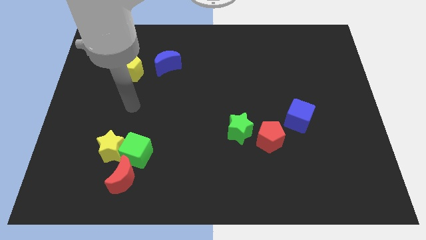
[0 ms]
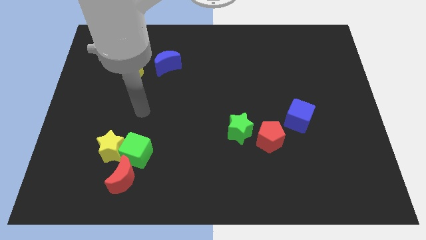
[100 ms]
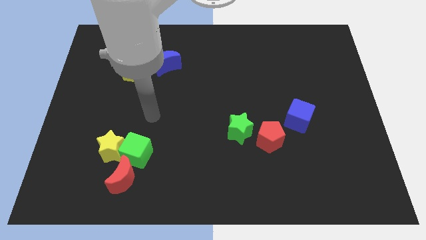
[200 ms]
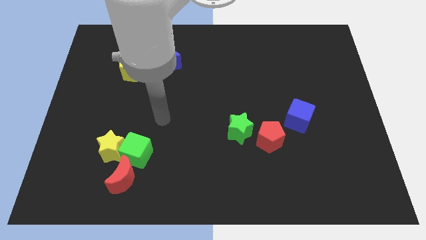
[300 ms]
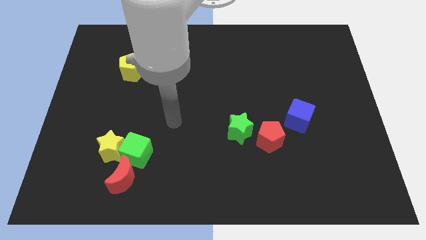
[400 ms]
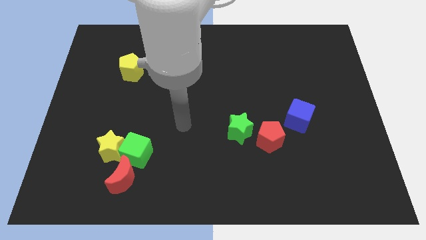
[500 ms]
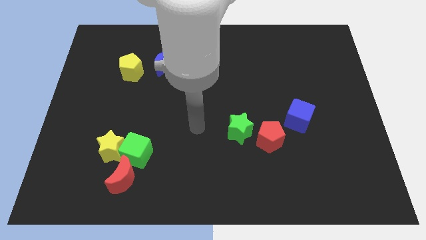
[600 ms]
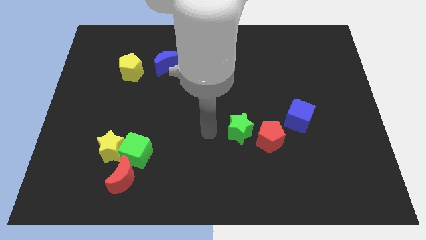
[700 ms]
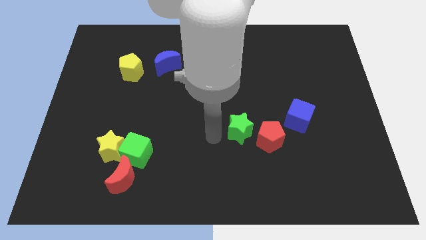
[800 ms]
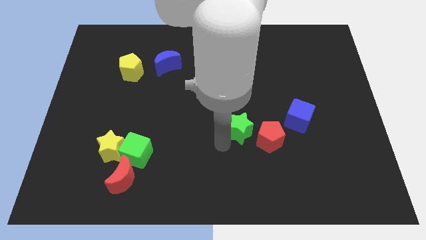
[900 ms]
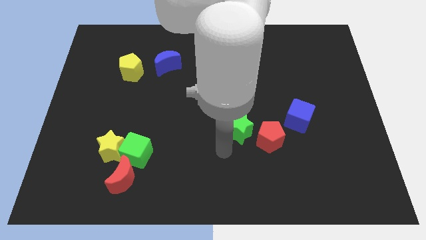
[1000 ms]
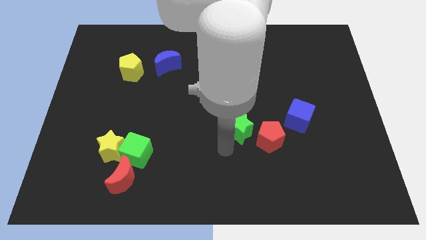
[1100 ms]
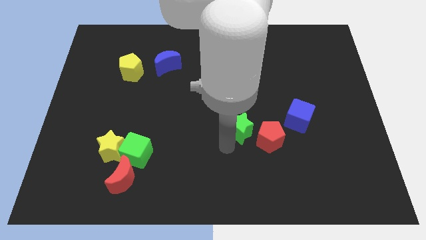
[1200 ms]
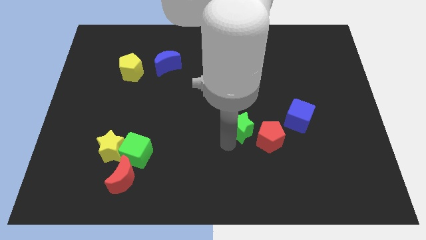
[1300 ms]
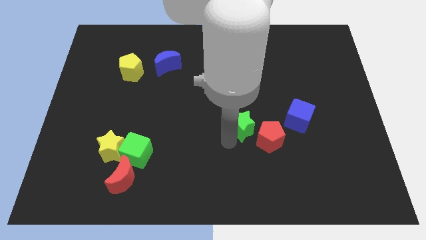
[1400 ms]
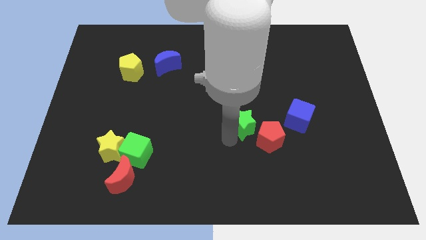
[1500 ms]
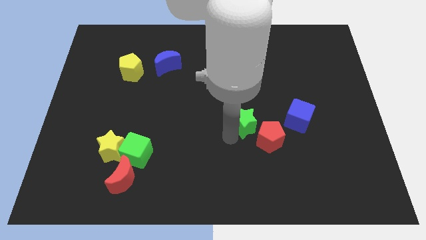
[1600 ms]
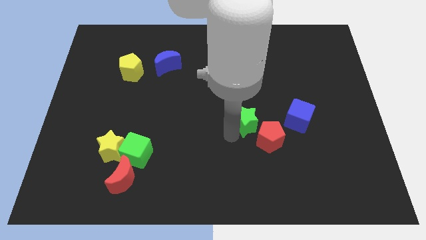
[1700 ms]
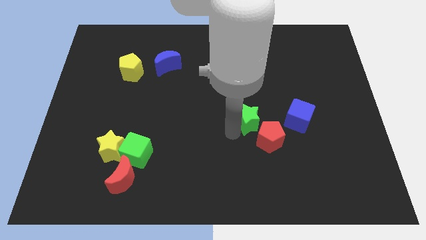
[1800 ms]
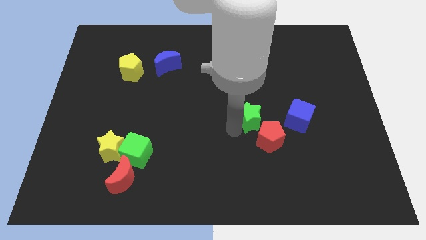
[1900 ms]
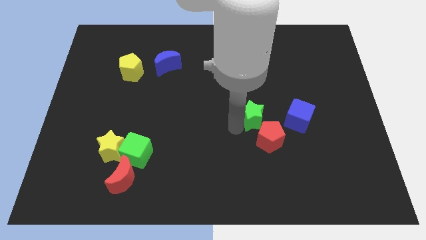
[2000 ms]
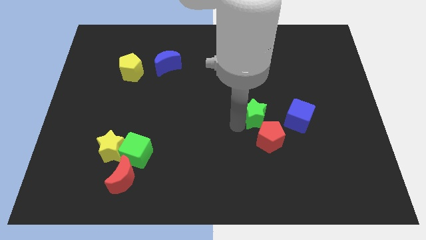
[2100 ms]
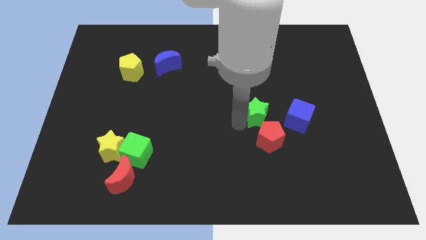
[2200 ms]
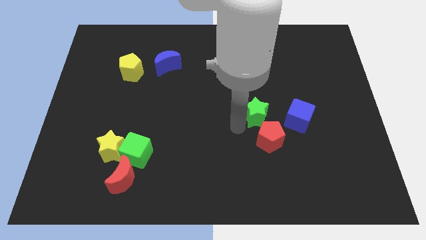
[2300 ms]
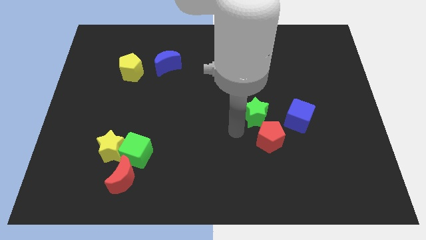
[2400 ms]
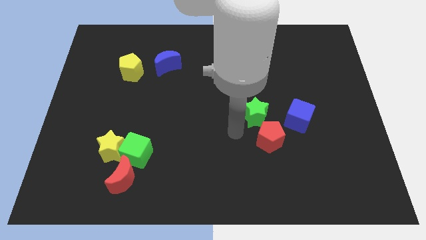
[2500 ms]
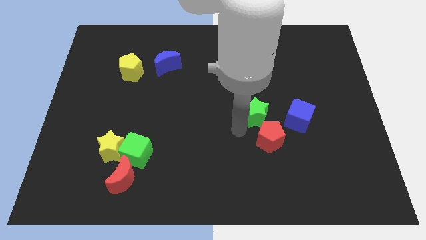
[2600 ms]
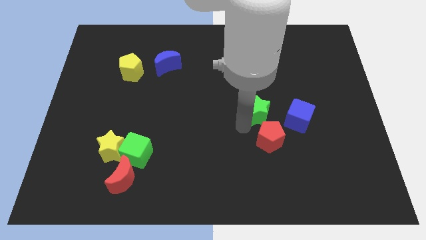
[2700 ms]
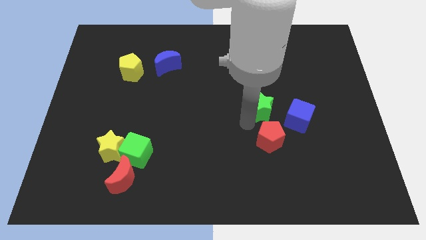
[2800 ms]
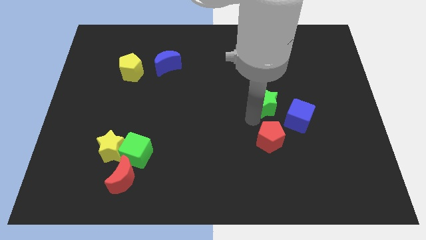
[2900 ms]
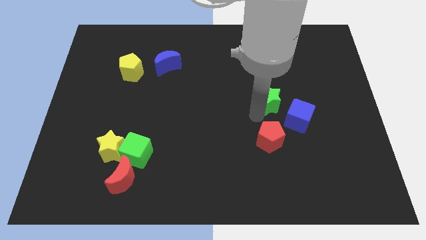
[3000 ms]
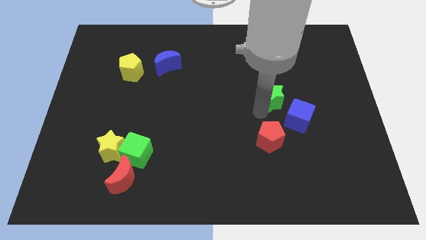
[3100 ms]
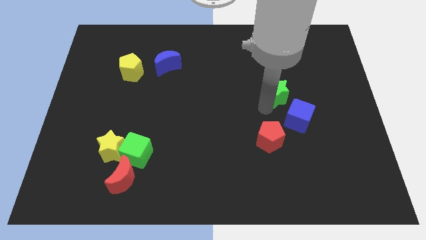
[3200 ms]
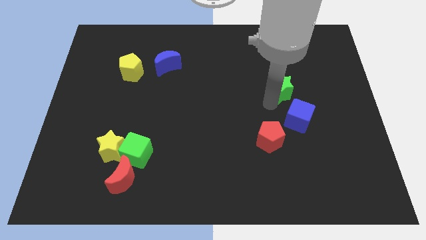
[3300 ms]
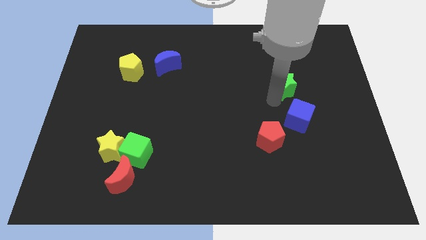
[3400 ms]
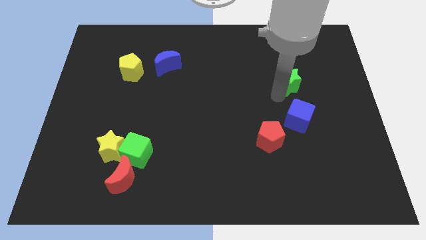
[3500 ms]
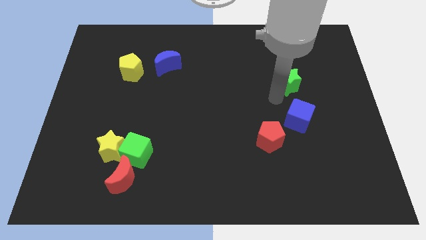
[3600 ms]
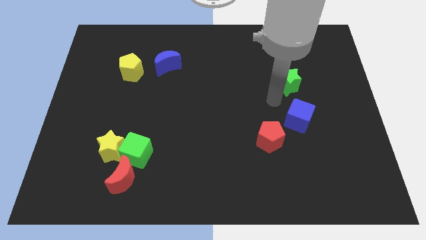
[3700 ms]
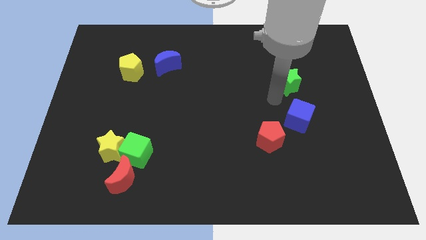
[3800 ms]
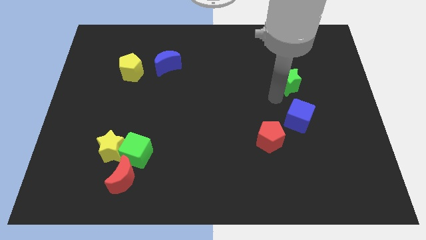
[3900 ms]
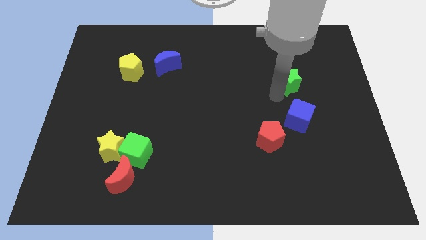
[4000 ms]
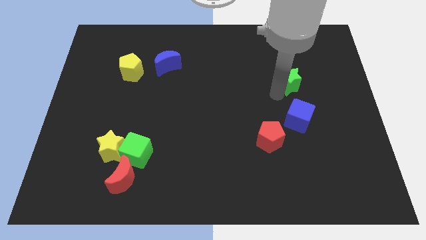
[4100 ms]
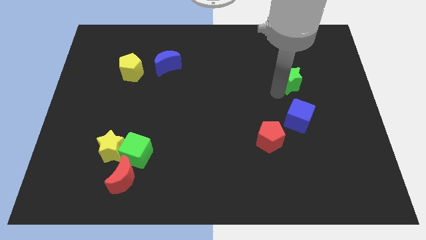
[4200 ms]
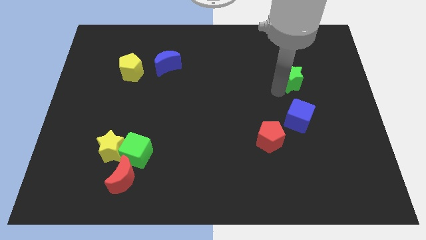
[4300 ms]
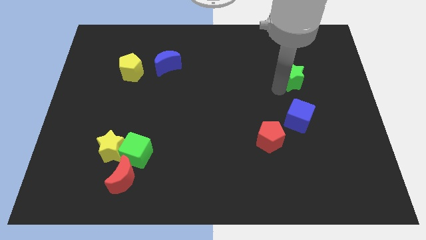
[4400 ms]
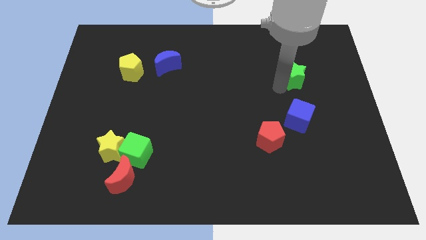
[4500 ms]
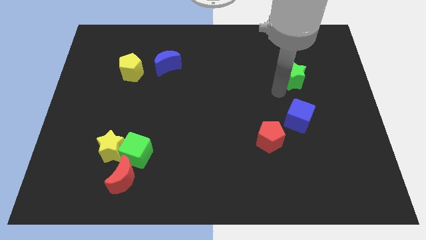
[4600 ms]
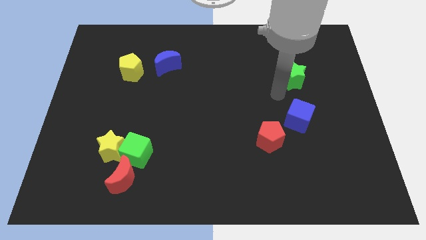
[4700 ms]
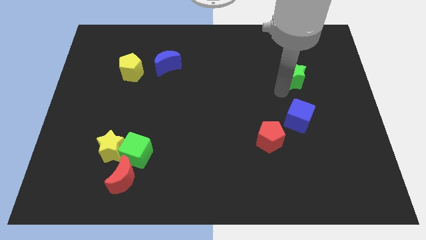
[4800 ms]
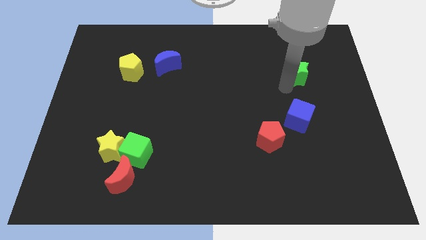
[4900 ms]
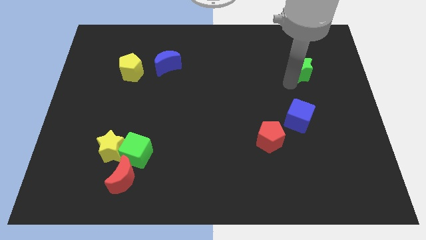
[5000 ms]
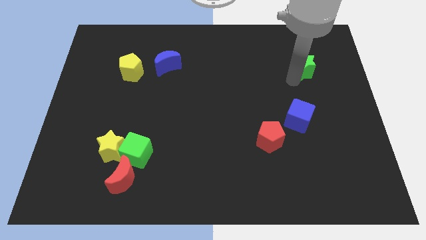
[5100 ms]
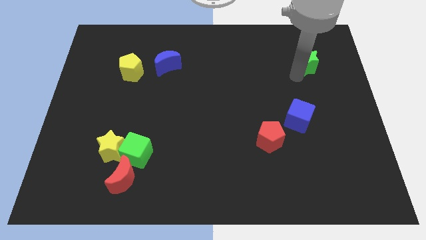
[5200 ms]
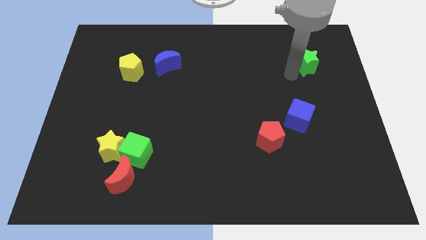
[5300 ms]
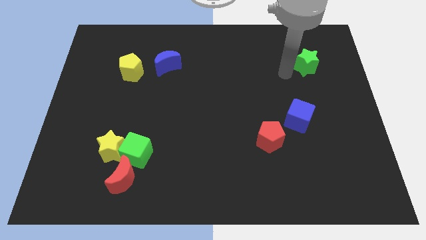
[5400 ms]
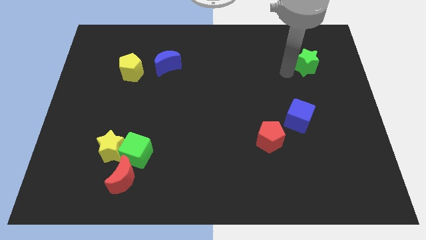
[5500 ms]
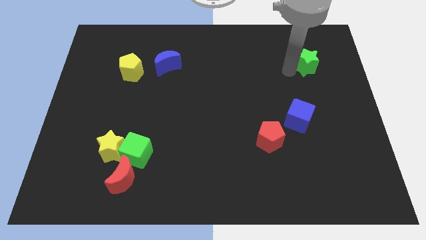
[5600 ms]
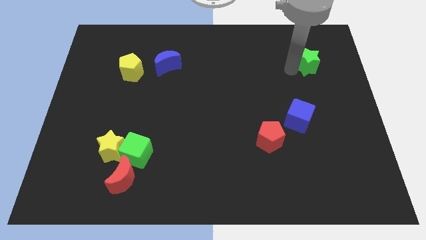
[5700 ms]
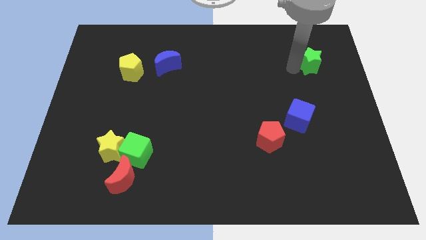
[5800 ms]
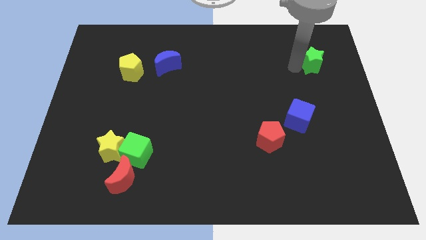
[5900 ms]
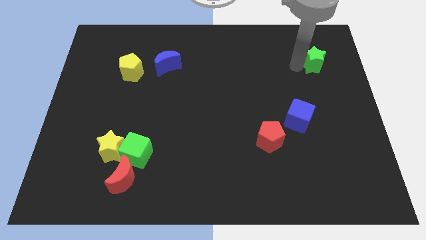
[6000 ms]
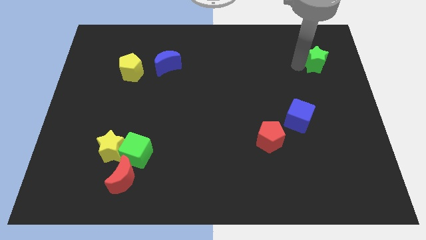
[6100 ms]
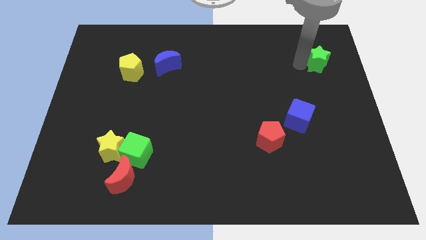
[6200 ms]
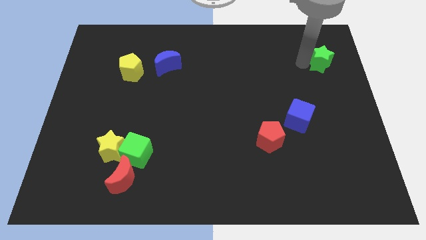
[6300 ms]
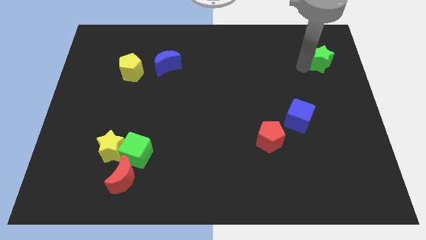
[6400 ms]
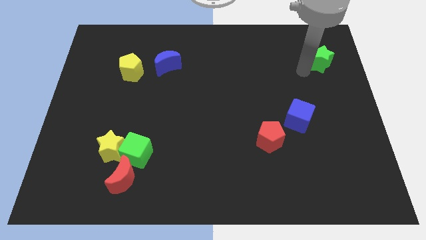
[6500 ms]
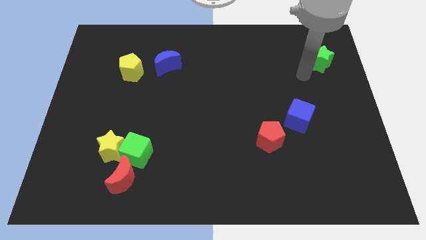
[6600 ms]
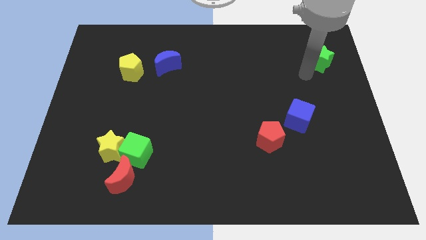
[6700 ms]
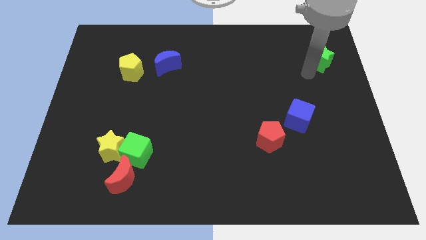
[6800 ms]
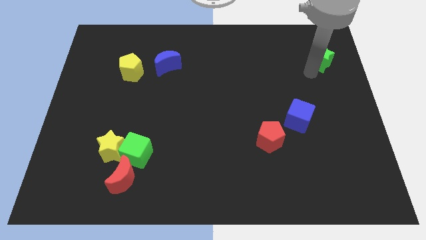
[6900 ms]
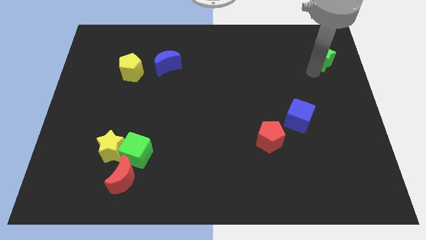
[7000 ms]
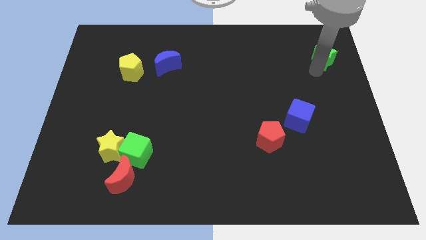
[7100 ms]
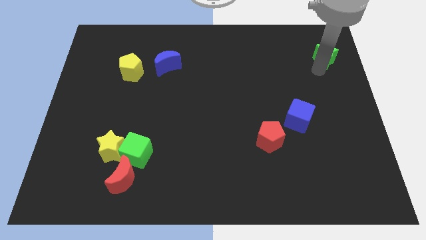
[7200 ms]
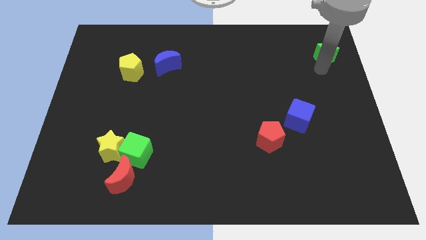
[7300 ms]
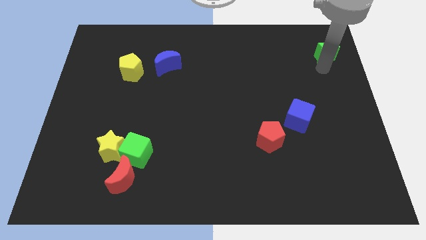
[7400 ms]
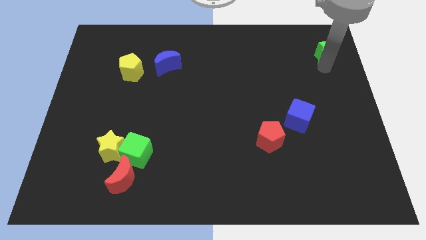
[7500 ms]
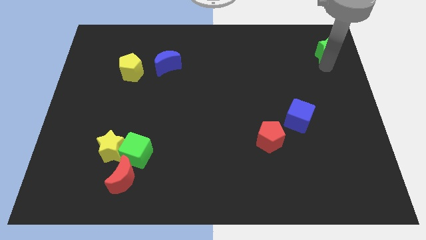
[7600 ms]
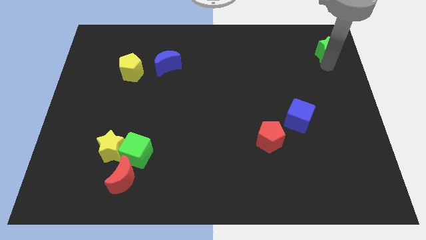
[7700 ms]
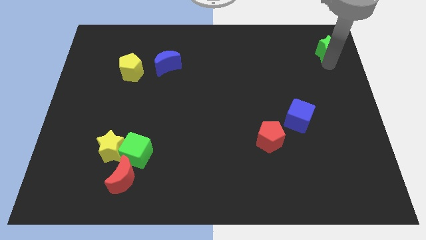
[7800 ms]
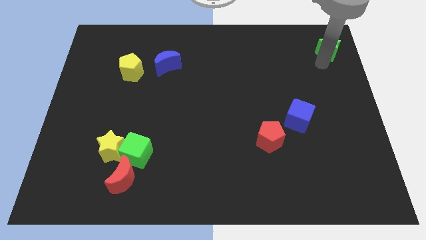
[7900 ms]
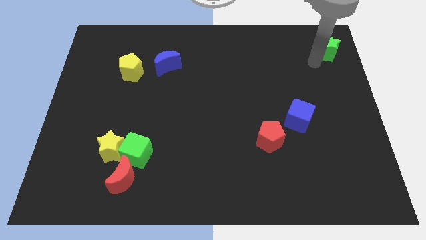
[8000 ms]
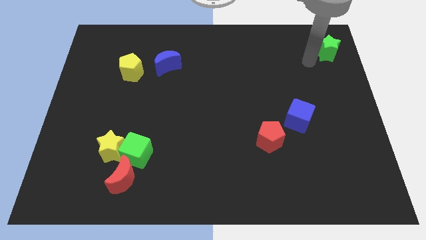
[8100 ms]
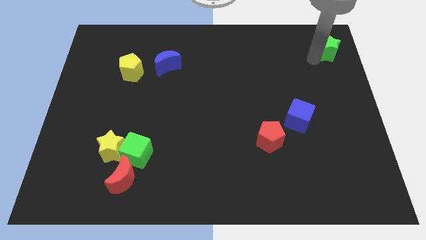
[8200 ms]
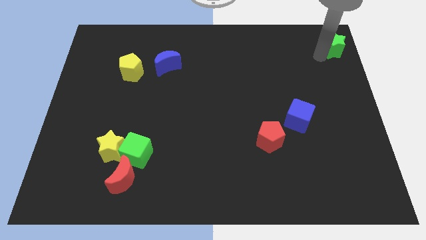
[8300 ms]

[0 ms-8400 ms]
push the green star to the upper right corner
